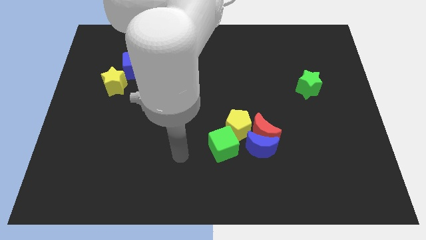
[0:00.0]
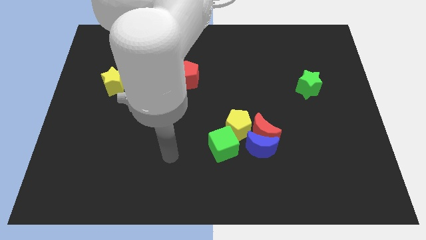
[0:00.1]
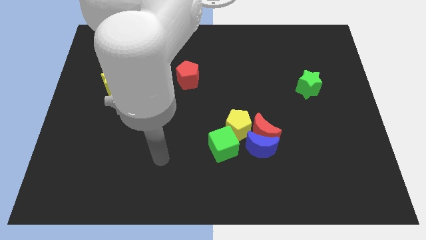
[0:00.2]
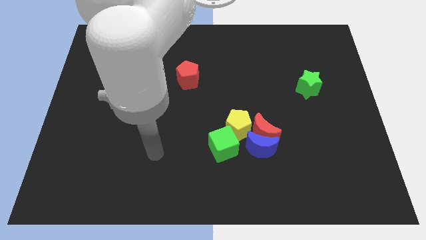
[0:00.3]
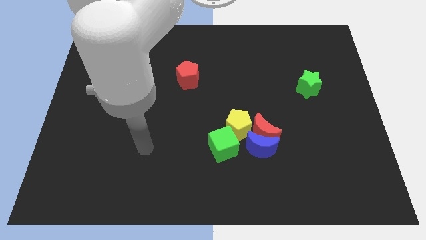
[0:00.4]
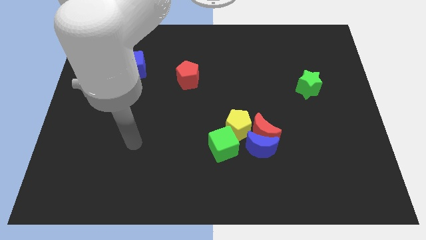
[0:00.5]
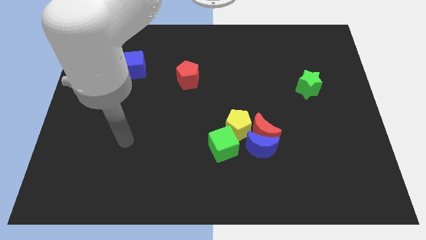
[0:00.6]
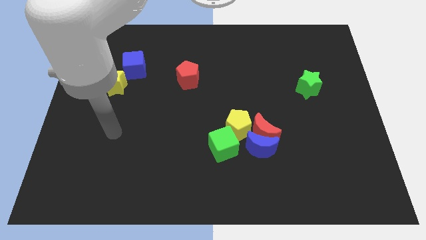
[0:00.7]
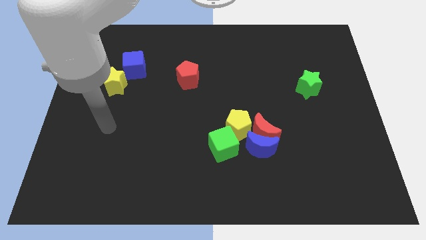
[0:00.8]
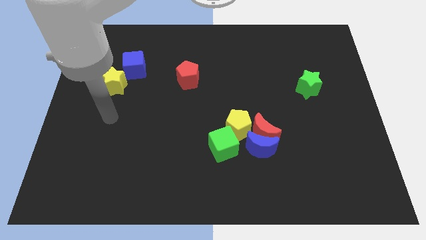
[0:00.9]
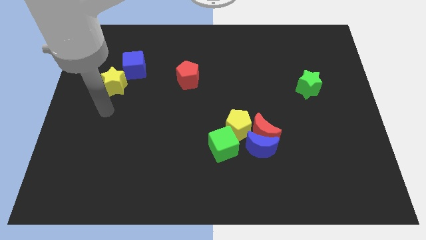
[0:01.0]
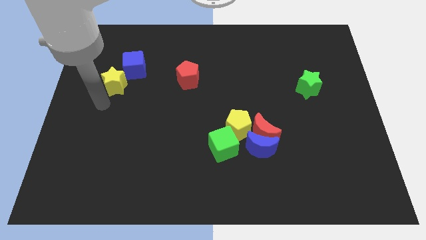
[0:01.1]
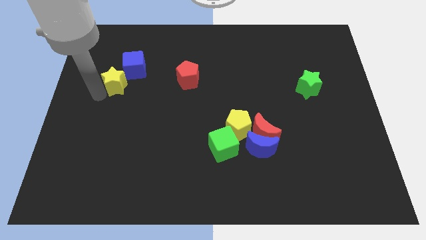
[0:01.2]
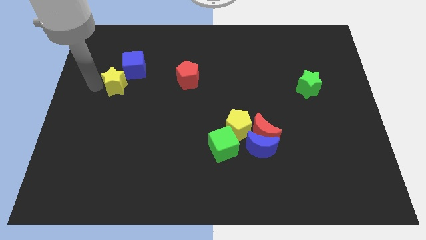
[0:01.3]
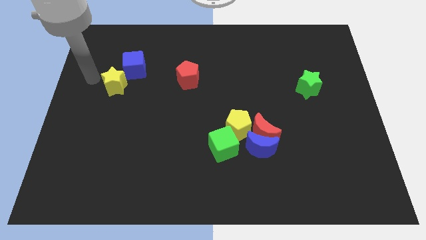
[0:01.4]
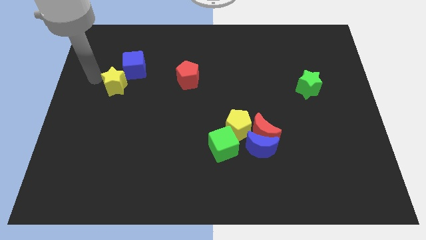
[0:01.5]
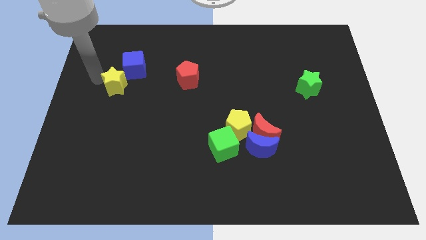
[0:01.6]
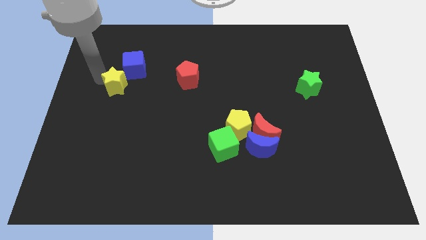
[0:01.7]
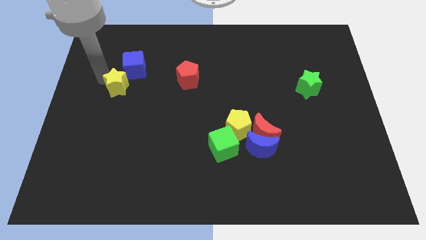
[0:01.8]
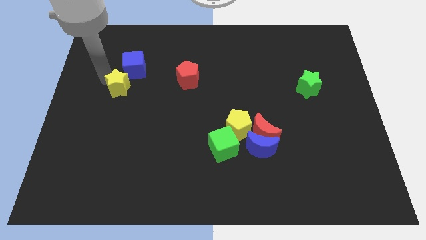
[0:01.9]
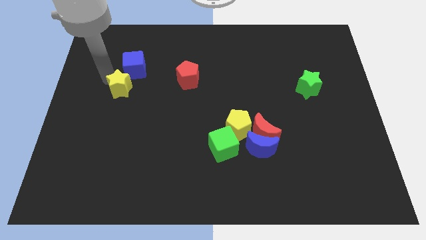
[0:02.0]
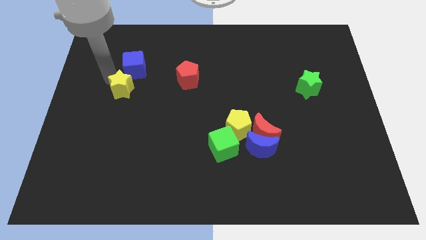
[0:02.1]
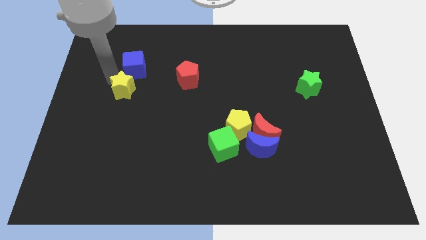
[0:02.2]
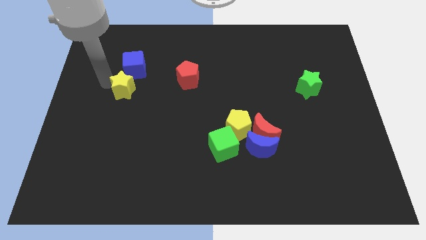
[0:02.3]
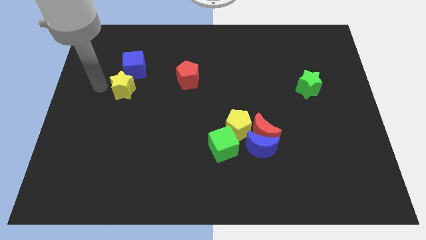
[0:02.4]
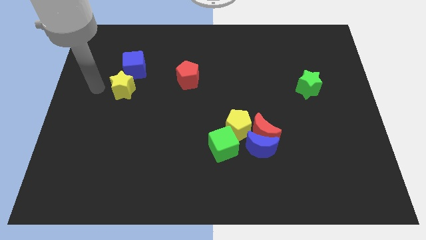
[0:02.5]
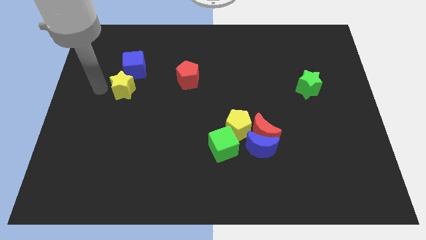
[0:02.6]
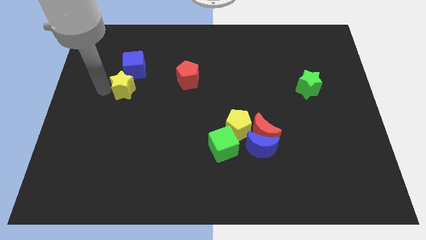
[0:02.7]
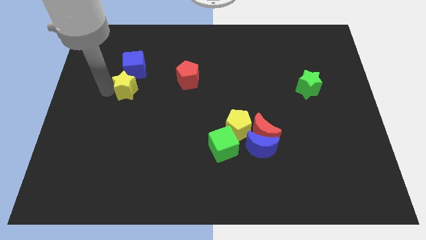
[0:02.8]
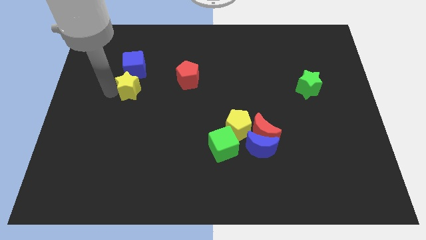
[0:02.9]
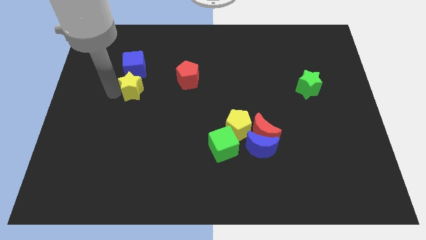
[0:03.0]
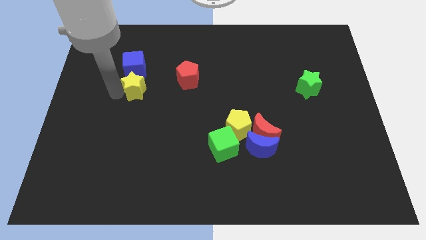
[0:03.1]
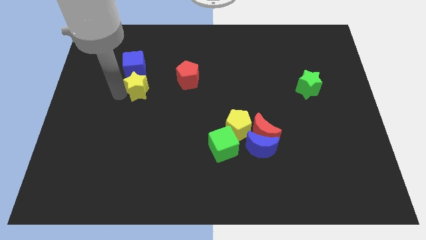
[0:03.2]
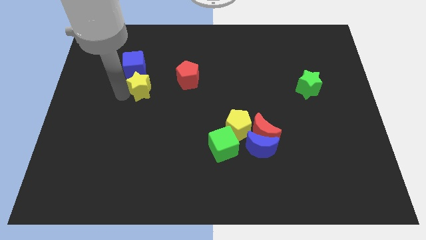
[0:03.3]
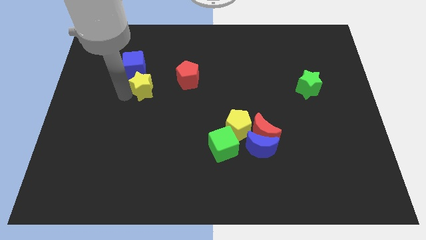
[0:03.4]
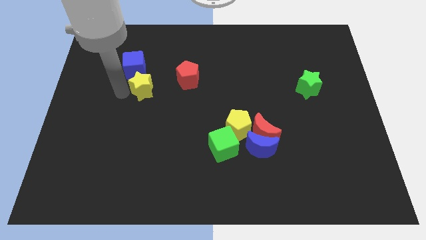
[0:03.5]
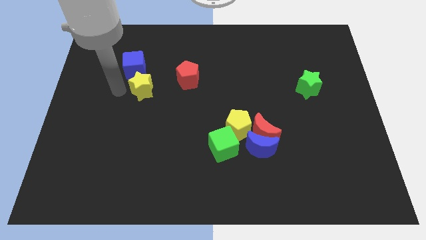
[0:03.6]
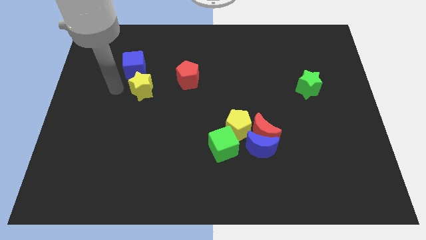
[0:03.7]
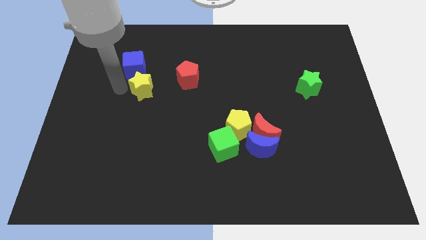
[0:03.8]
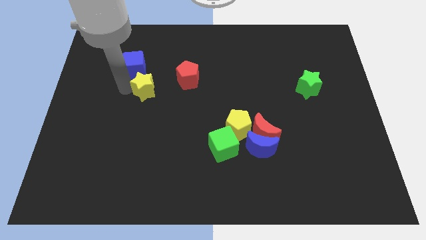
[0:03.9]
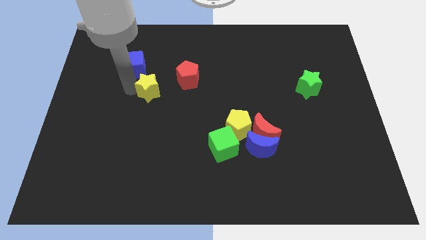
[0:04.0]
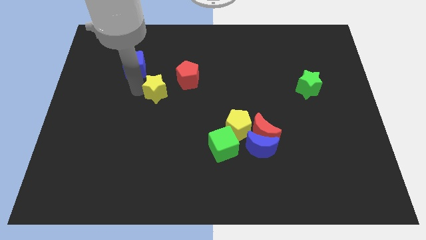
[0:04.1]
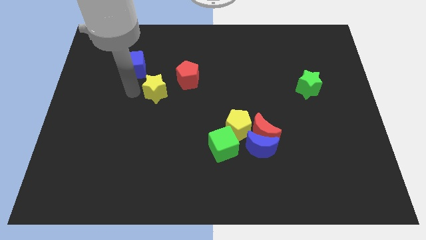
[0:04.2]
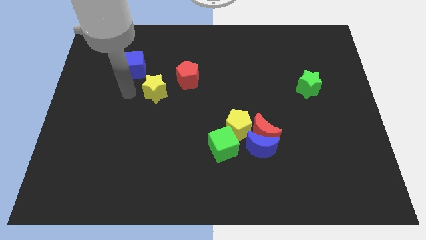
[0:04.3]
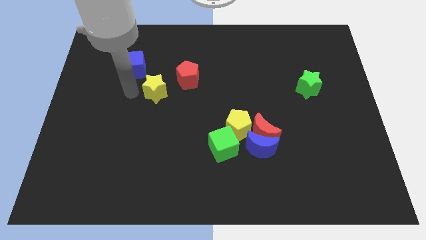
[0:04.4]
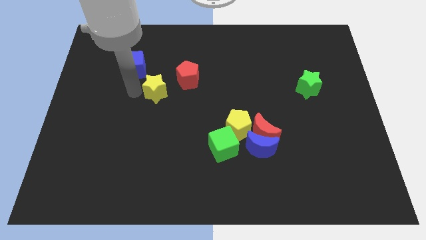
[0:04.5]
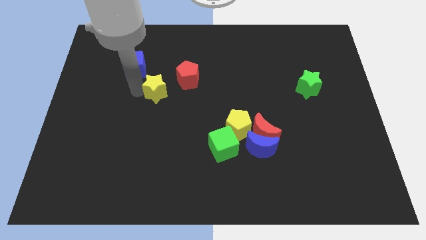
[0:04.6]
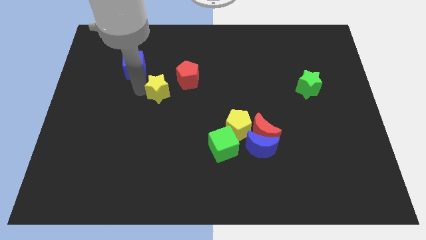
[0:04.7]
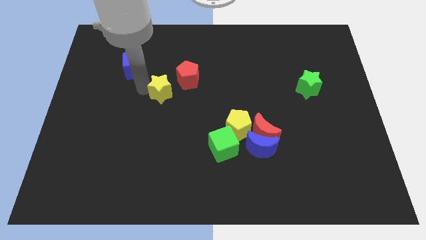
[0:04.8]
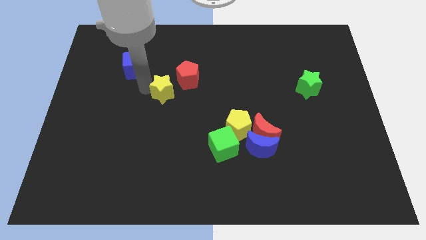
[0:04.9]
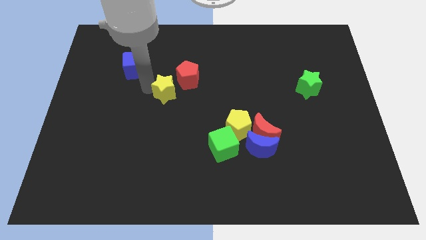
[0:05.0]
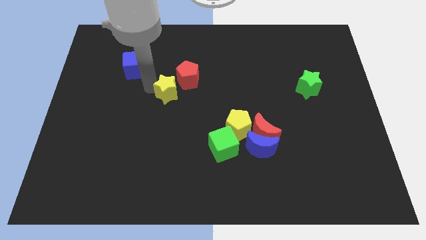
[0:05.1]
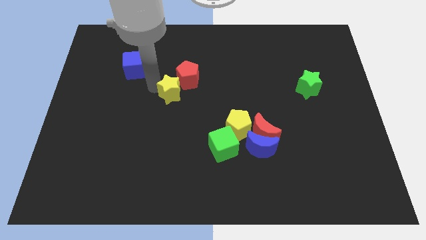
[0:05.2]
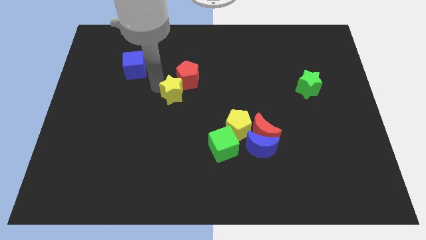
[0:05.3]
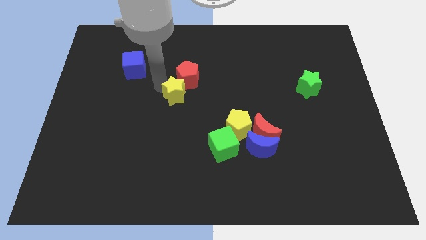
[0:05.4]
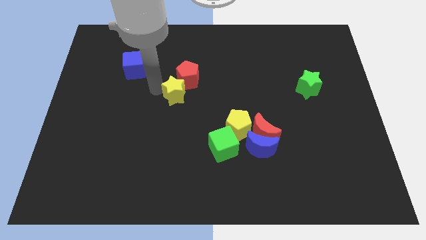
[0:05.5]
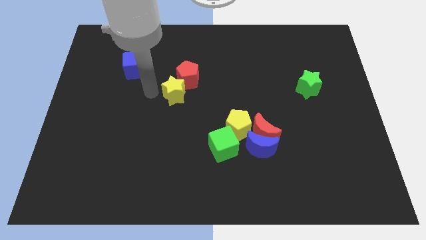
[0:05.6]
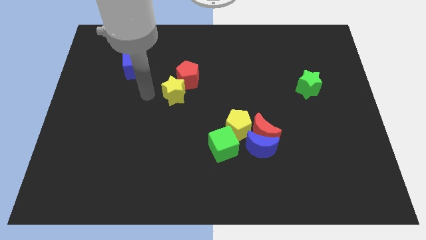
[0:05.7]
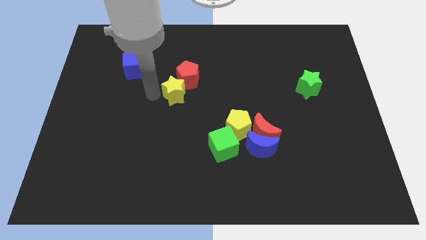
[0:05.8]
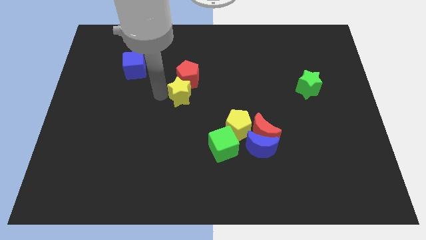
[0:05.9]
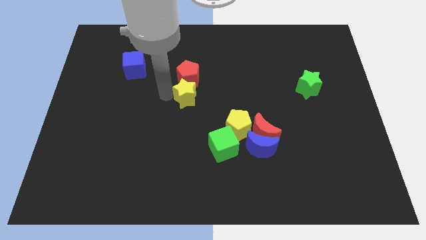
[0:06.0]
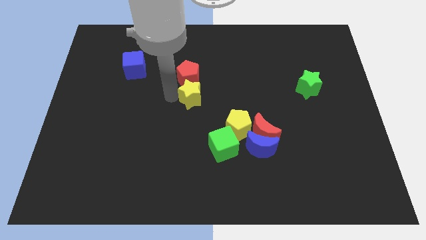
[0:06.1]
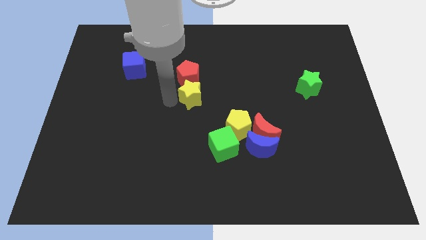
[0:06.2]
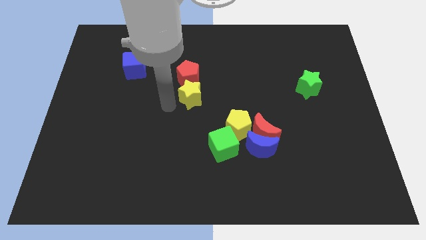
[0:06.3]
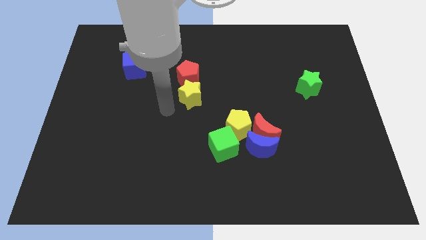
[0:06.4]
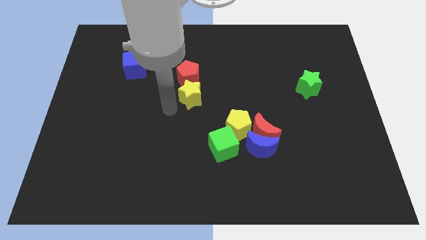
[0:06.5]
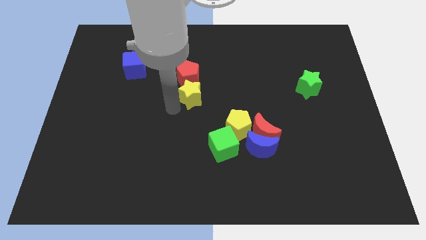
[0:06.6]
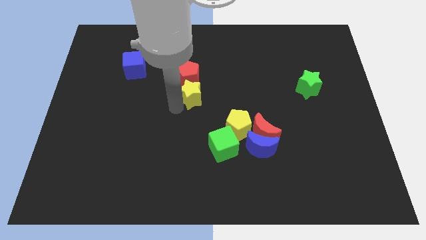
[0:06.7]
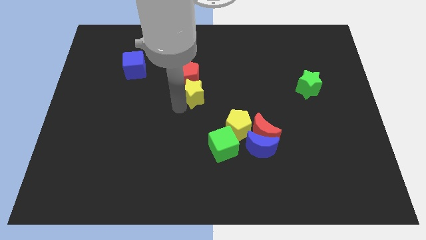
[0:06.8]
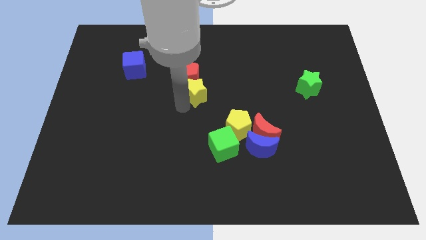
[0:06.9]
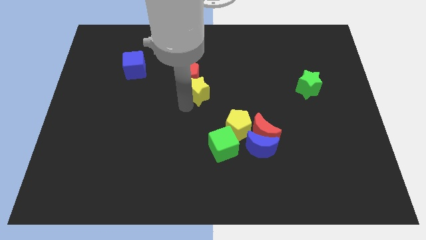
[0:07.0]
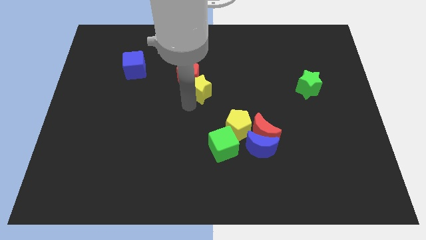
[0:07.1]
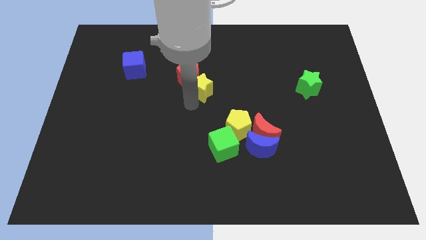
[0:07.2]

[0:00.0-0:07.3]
move the yellow star right of the red pentagon
